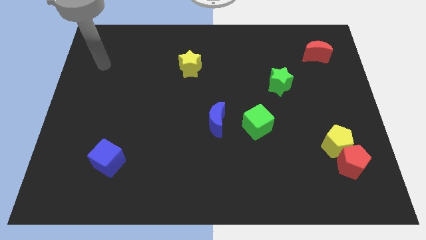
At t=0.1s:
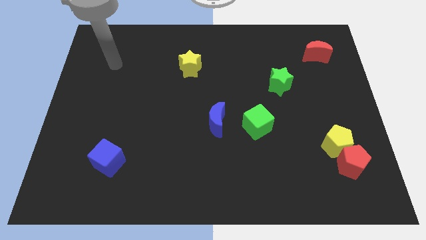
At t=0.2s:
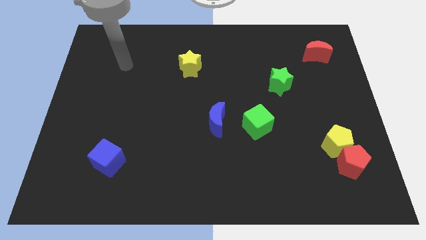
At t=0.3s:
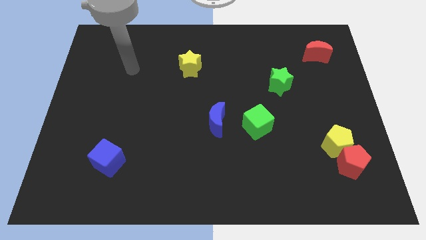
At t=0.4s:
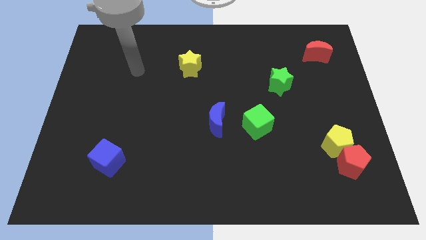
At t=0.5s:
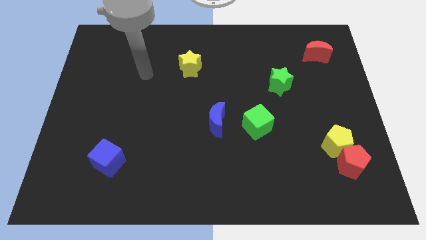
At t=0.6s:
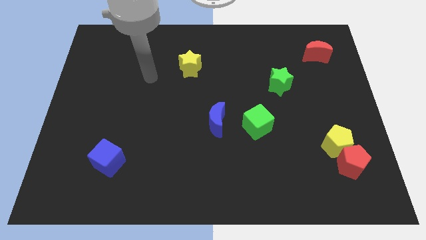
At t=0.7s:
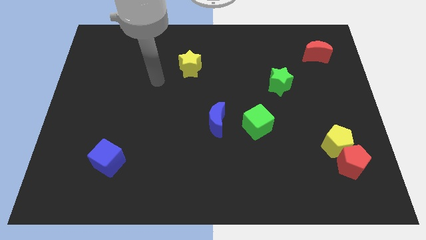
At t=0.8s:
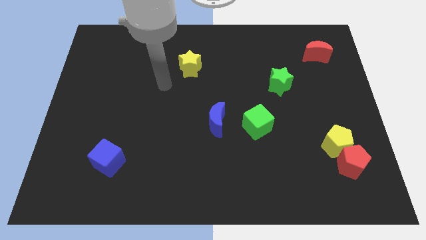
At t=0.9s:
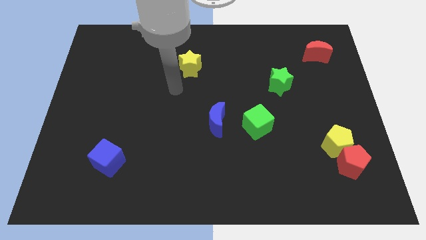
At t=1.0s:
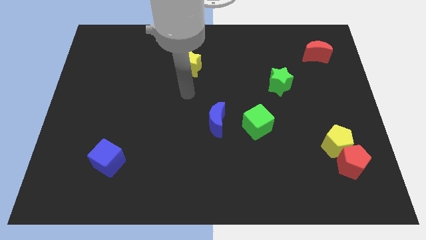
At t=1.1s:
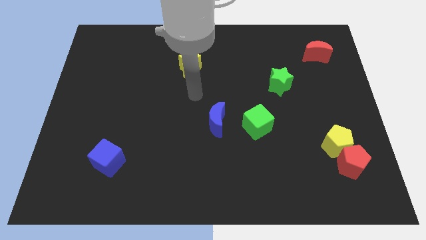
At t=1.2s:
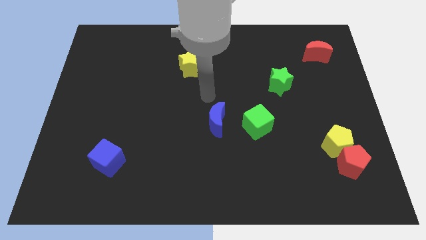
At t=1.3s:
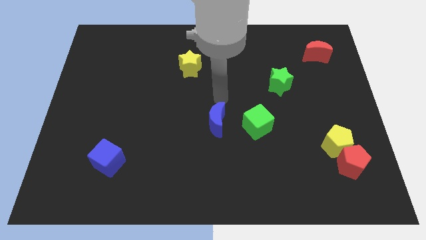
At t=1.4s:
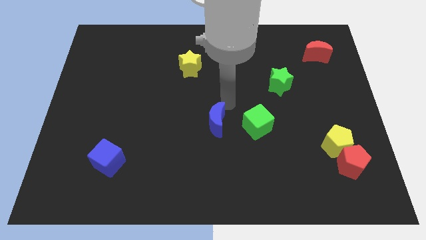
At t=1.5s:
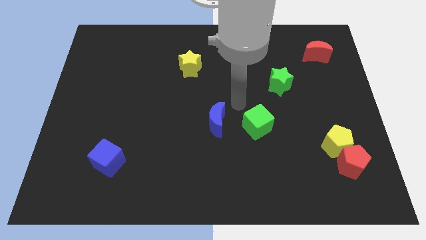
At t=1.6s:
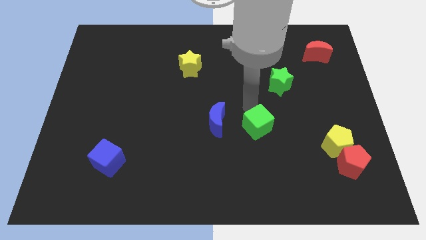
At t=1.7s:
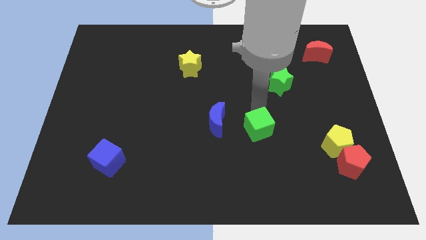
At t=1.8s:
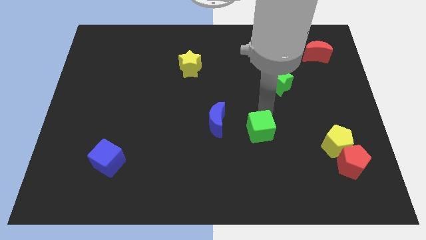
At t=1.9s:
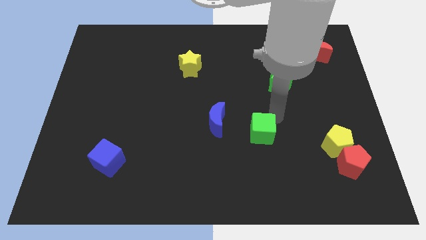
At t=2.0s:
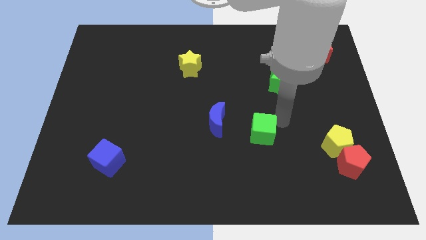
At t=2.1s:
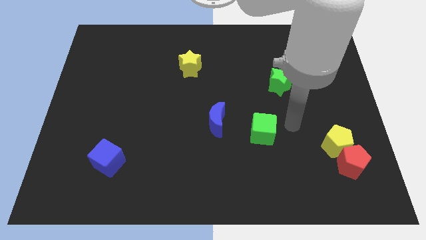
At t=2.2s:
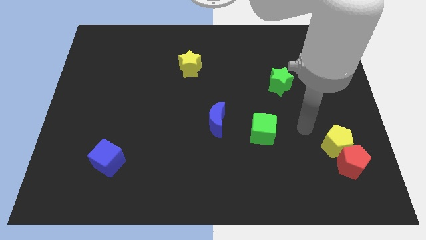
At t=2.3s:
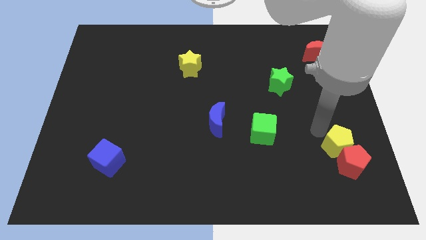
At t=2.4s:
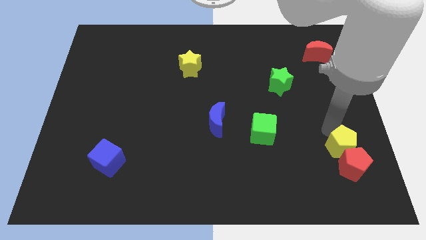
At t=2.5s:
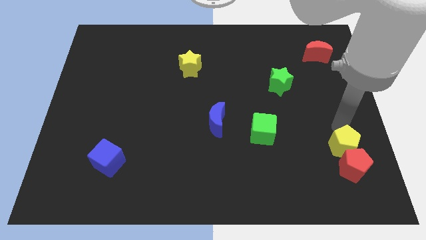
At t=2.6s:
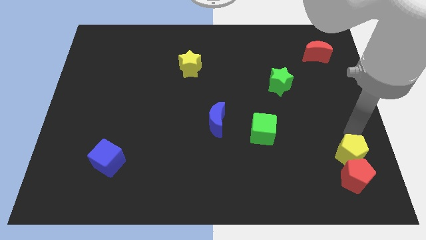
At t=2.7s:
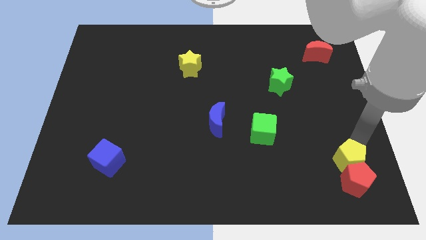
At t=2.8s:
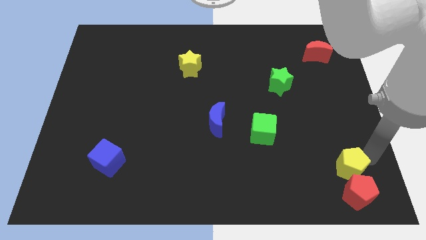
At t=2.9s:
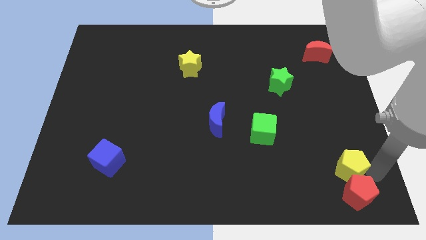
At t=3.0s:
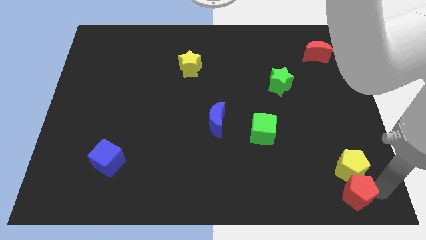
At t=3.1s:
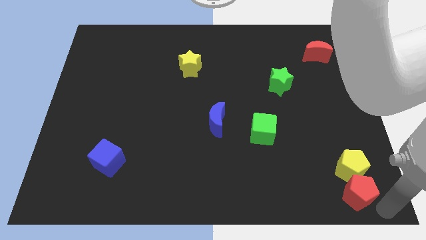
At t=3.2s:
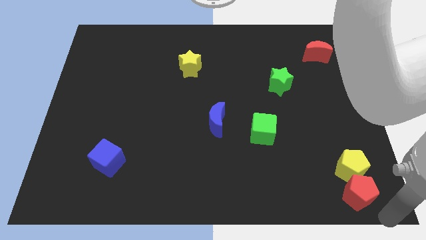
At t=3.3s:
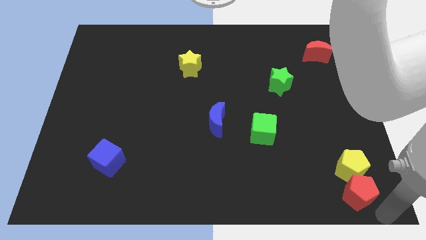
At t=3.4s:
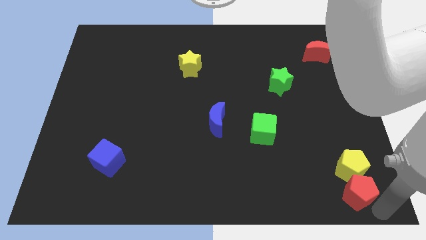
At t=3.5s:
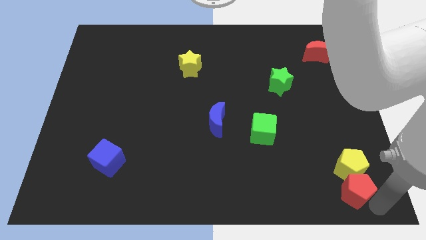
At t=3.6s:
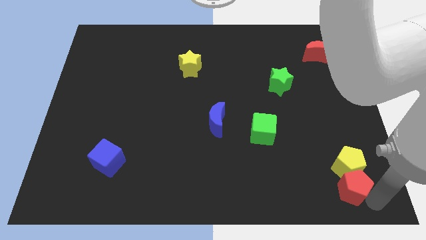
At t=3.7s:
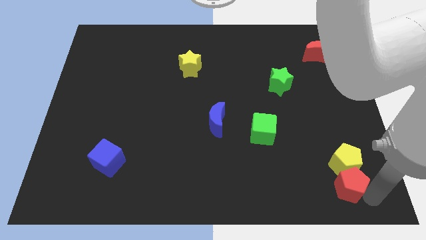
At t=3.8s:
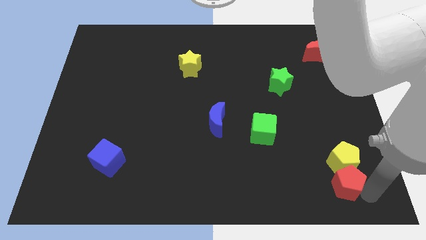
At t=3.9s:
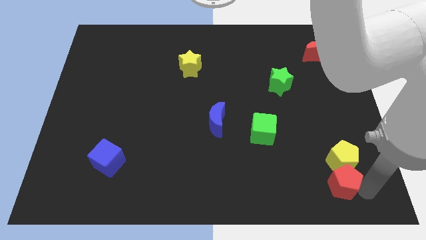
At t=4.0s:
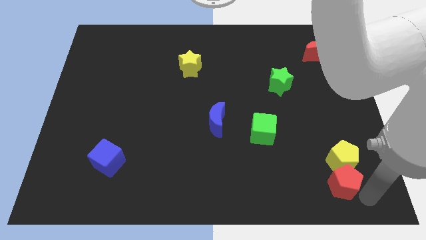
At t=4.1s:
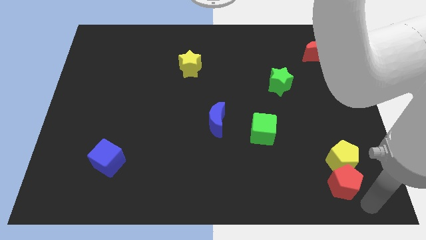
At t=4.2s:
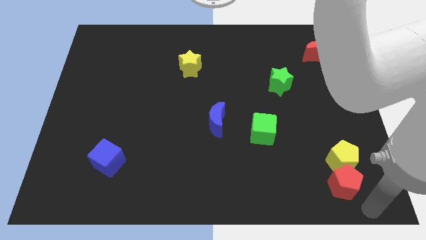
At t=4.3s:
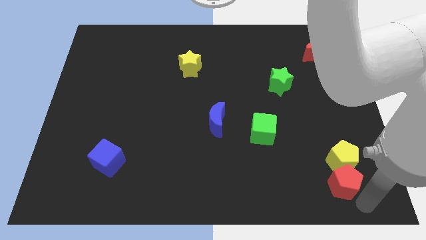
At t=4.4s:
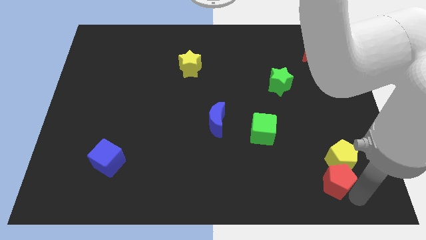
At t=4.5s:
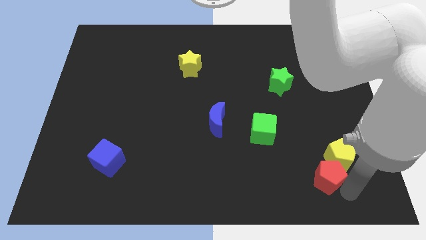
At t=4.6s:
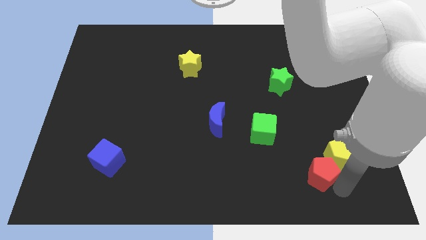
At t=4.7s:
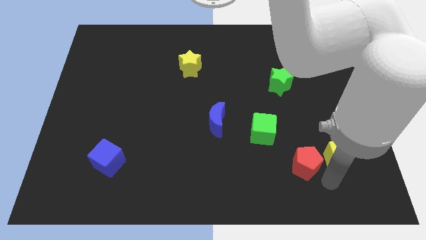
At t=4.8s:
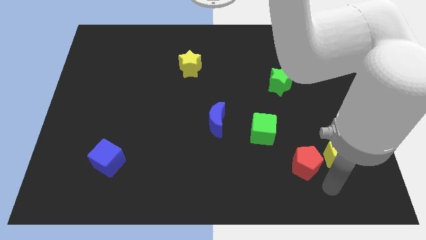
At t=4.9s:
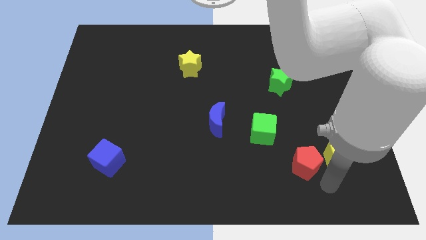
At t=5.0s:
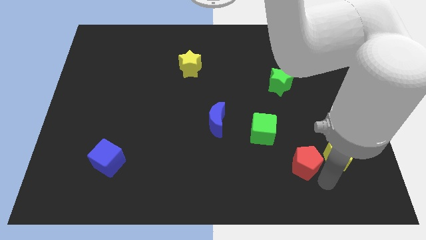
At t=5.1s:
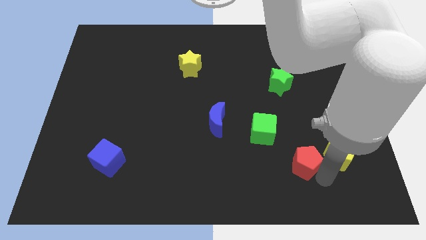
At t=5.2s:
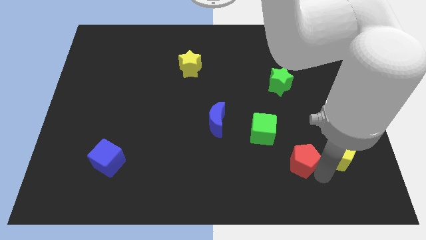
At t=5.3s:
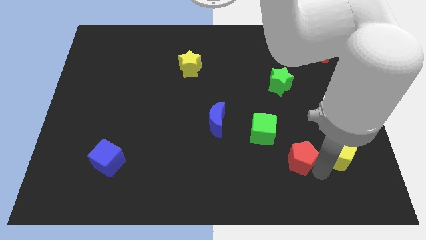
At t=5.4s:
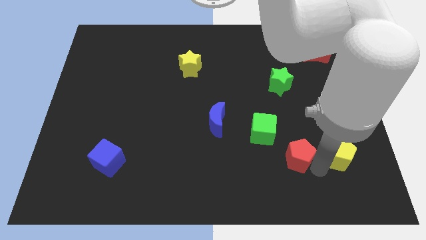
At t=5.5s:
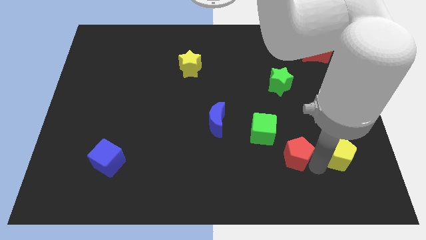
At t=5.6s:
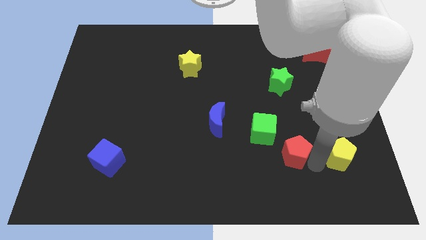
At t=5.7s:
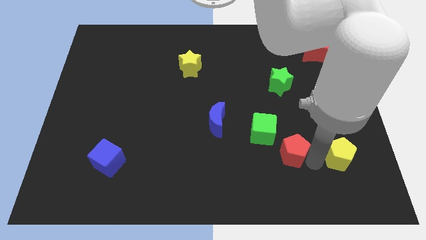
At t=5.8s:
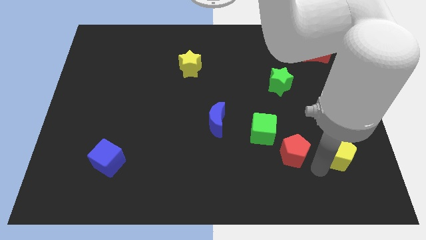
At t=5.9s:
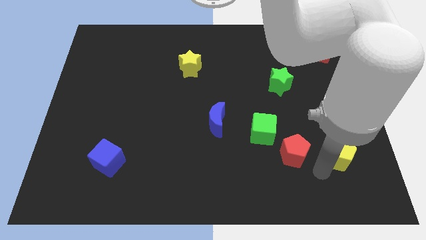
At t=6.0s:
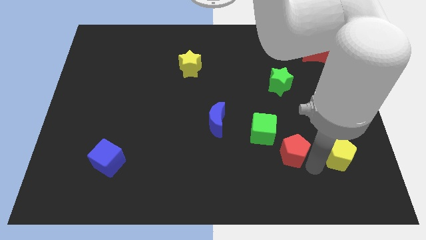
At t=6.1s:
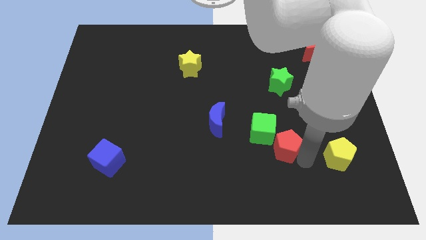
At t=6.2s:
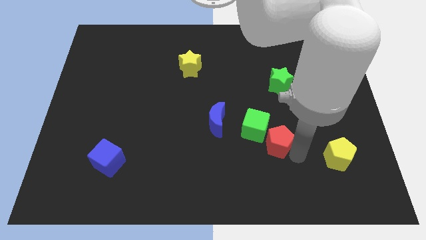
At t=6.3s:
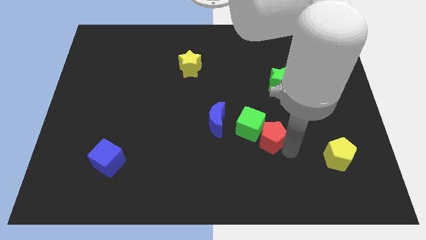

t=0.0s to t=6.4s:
push the red pentagon close to the green cube
